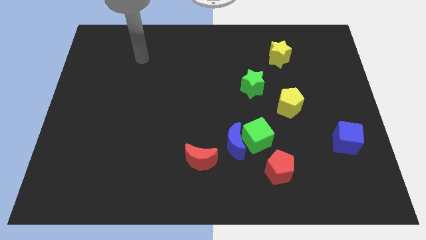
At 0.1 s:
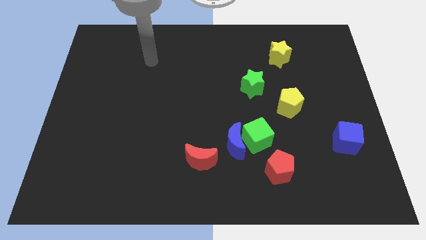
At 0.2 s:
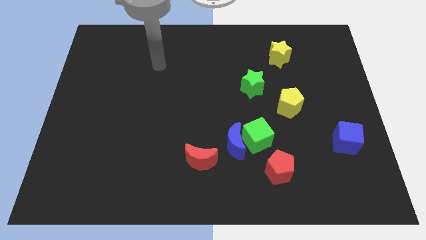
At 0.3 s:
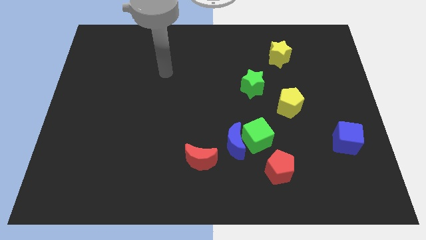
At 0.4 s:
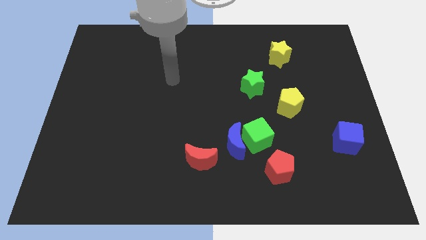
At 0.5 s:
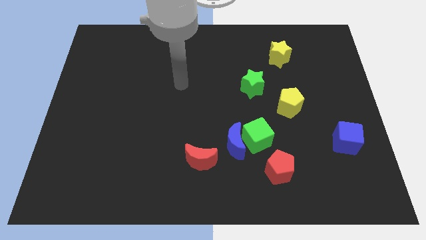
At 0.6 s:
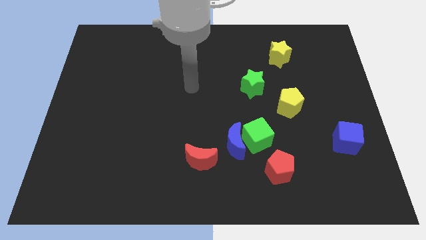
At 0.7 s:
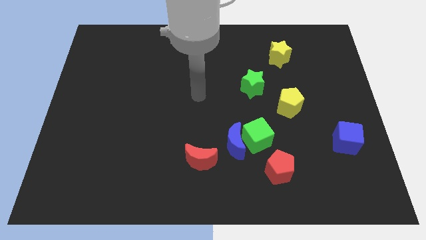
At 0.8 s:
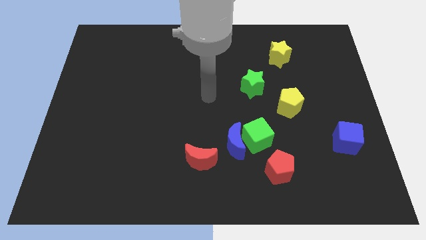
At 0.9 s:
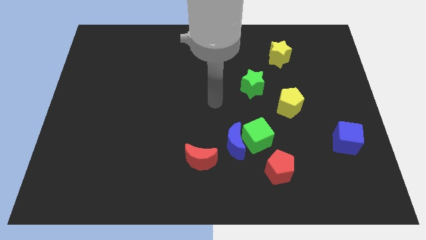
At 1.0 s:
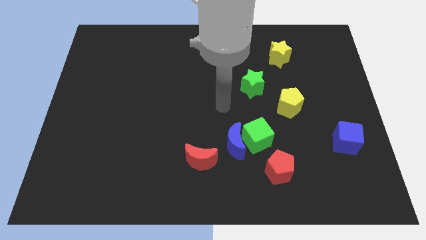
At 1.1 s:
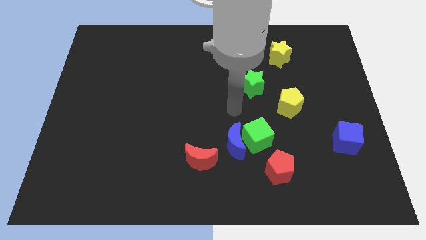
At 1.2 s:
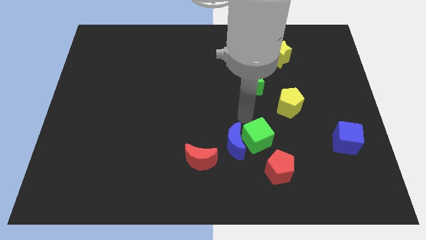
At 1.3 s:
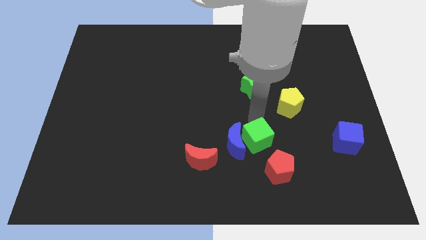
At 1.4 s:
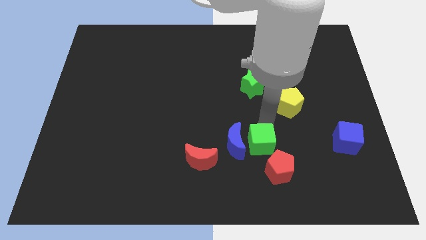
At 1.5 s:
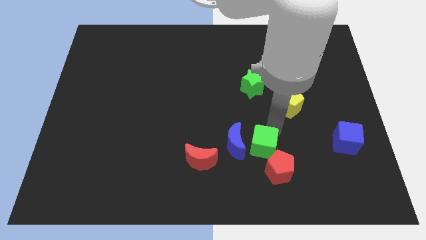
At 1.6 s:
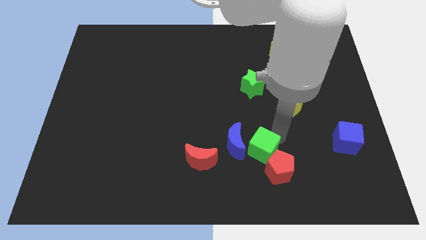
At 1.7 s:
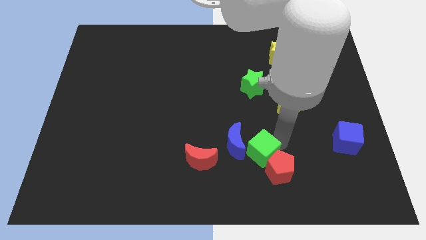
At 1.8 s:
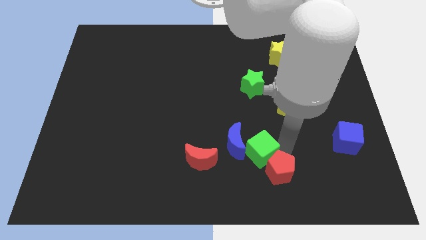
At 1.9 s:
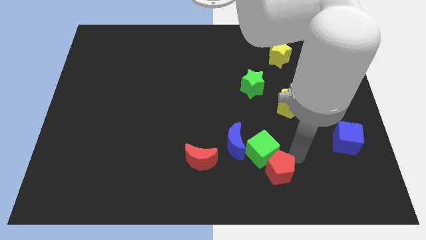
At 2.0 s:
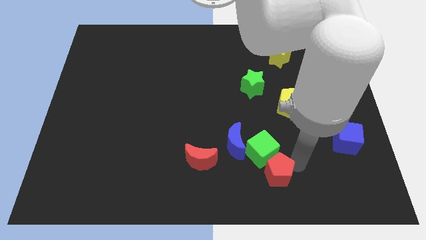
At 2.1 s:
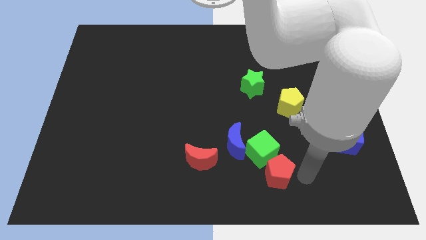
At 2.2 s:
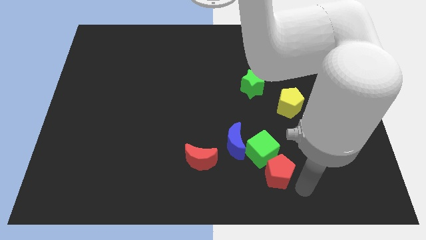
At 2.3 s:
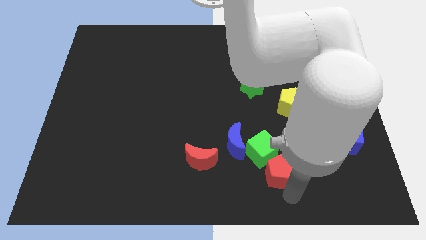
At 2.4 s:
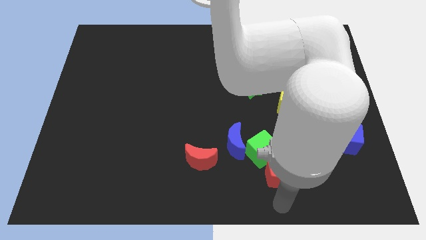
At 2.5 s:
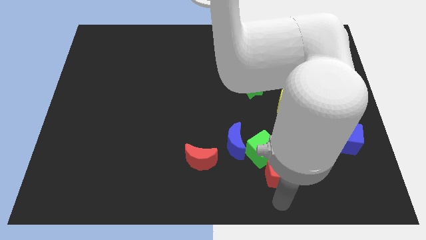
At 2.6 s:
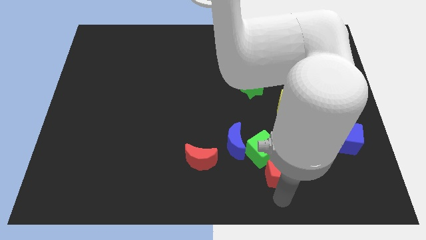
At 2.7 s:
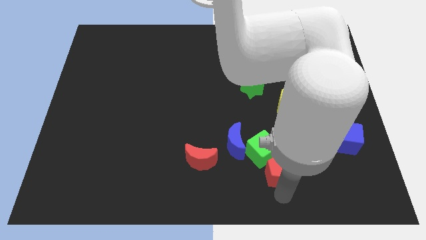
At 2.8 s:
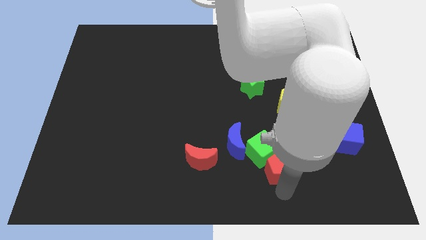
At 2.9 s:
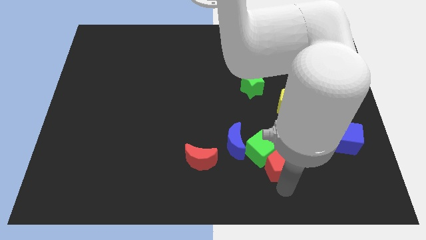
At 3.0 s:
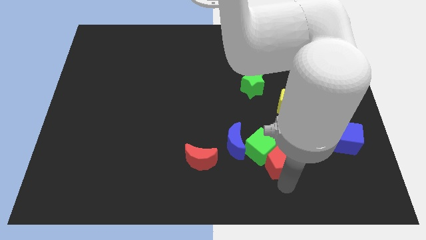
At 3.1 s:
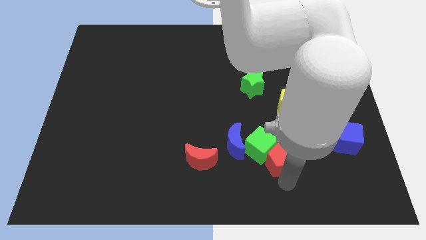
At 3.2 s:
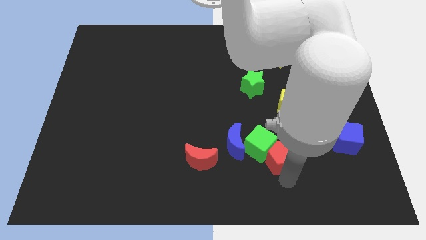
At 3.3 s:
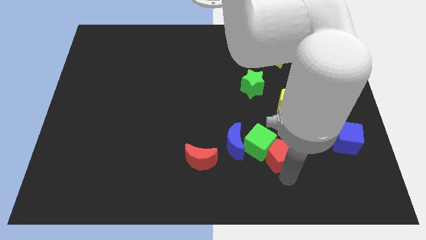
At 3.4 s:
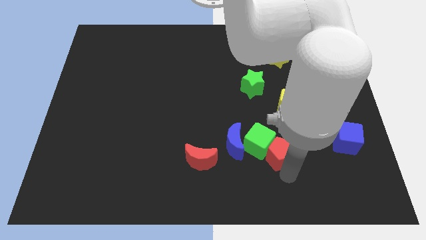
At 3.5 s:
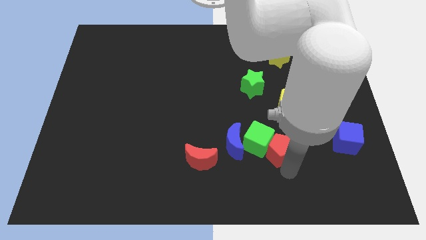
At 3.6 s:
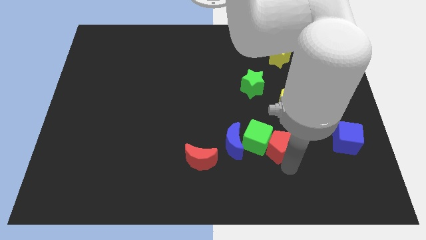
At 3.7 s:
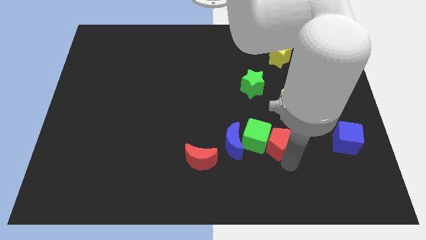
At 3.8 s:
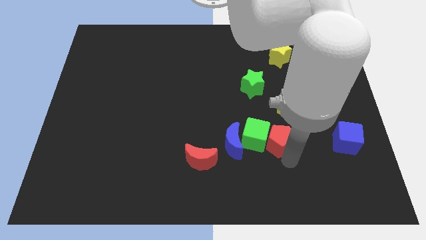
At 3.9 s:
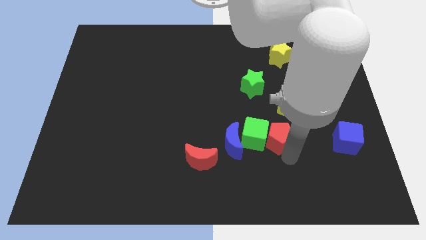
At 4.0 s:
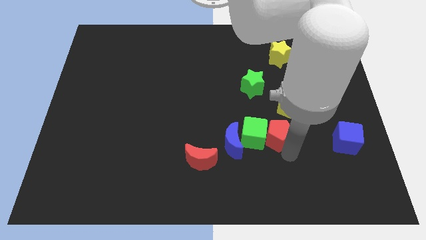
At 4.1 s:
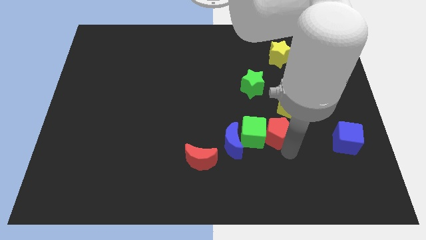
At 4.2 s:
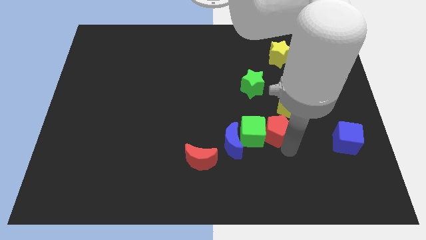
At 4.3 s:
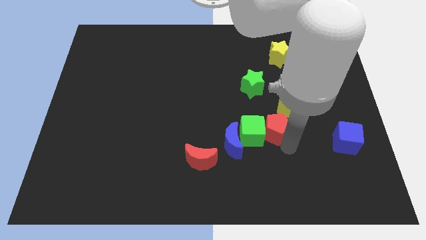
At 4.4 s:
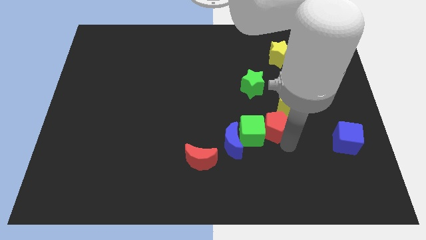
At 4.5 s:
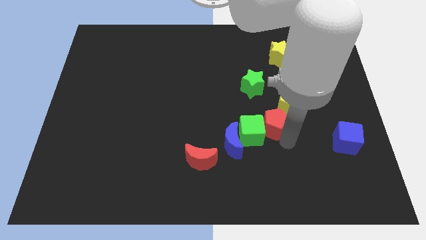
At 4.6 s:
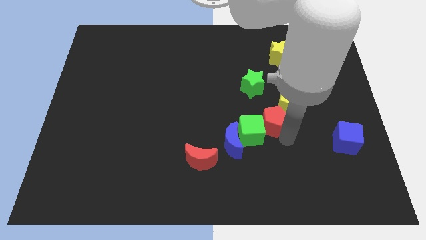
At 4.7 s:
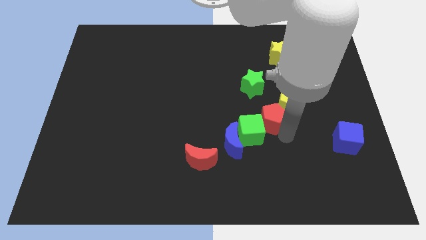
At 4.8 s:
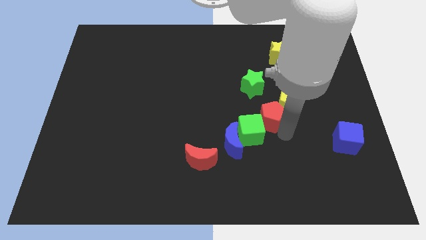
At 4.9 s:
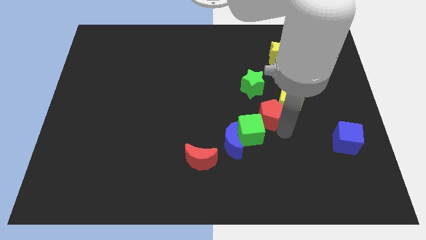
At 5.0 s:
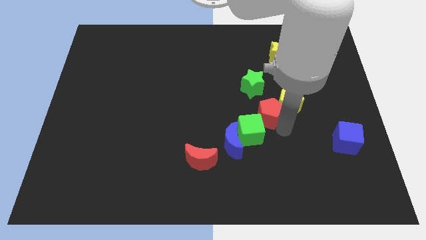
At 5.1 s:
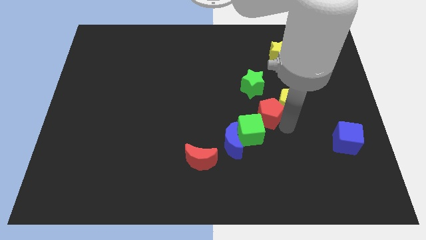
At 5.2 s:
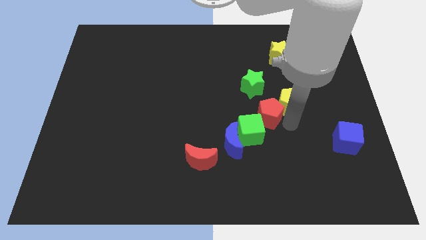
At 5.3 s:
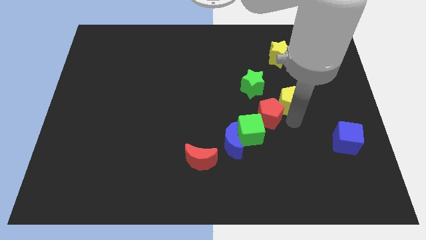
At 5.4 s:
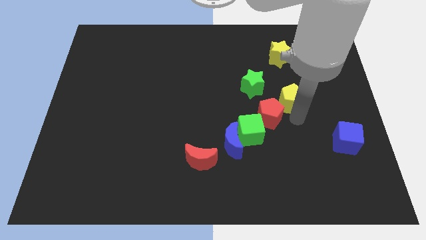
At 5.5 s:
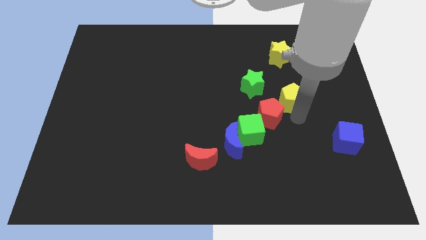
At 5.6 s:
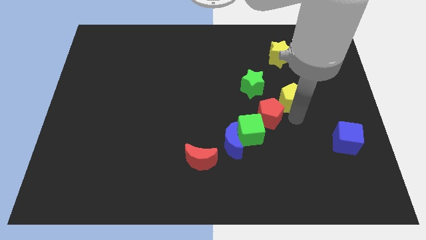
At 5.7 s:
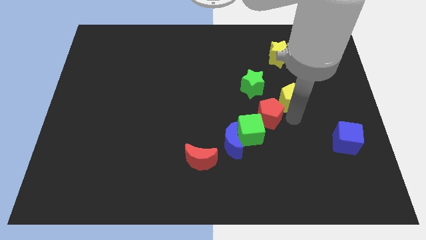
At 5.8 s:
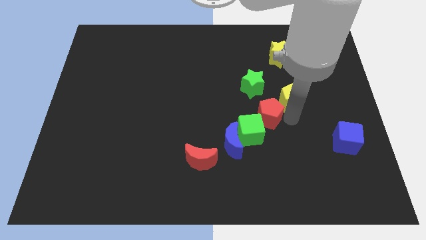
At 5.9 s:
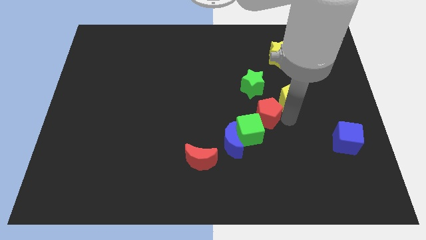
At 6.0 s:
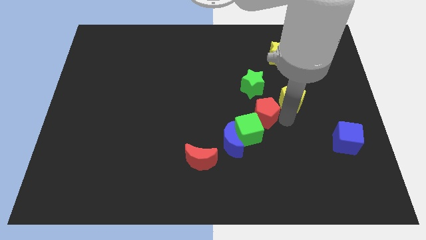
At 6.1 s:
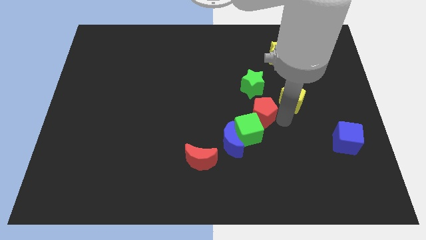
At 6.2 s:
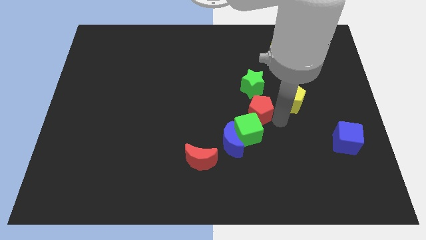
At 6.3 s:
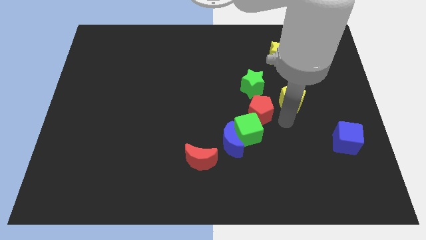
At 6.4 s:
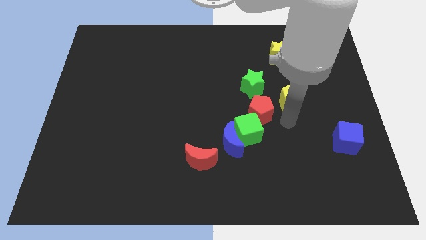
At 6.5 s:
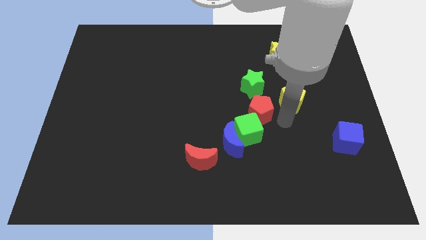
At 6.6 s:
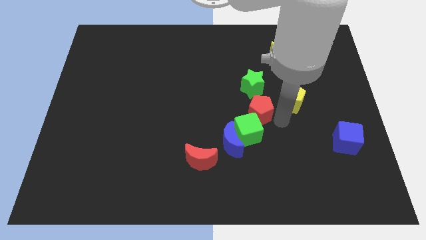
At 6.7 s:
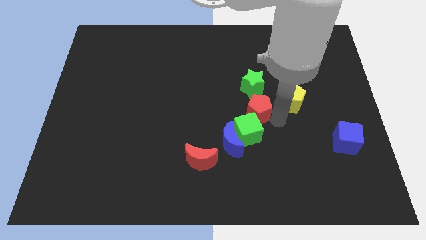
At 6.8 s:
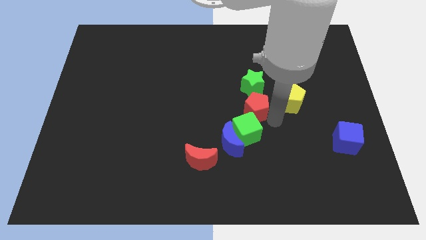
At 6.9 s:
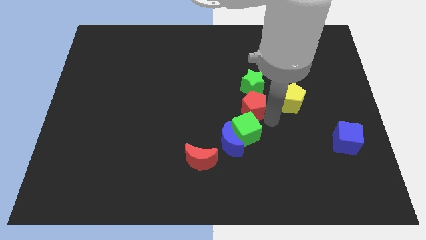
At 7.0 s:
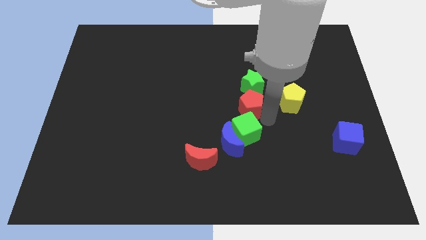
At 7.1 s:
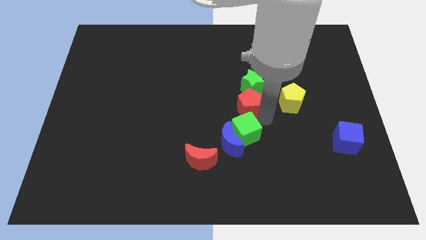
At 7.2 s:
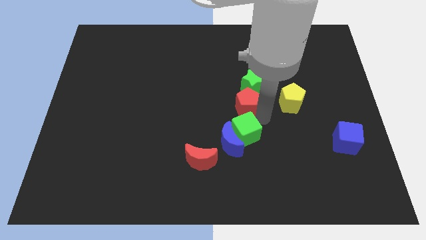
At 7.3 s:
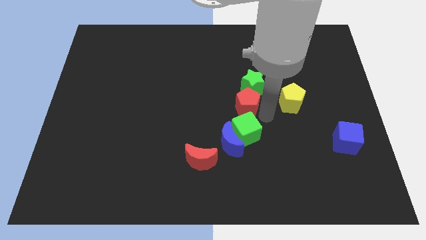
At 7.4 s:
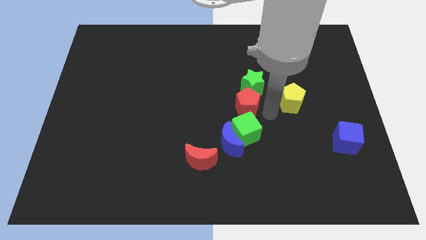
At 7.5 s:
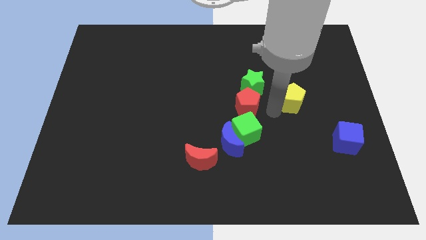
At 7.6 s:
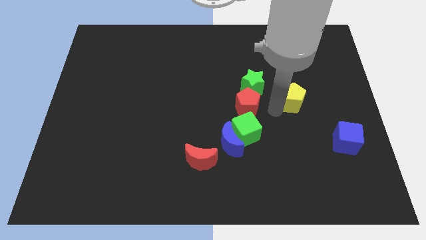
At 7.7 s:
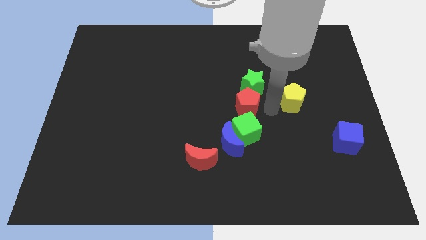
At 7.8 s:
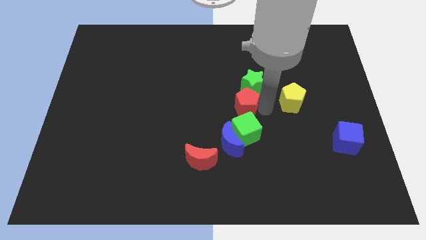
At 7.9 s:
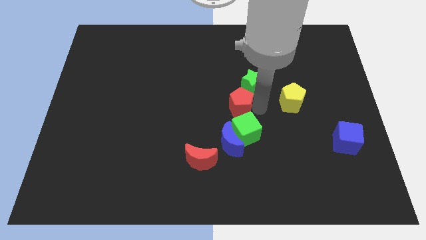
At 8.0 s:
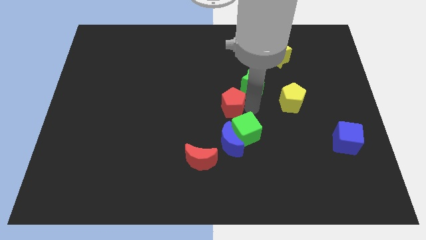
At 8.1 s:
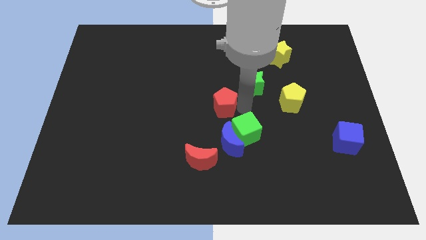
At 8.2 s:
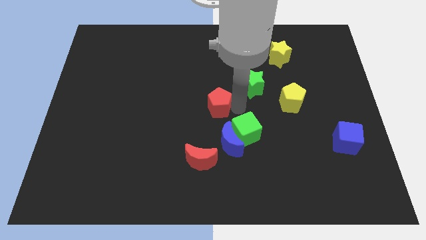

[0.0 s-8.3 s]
slide the red pentagon upwards and to the left diagonally
